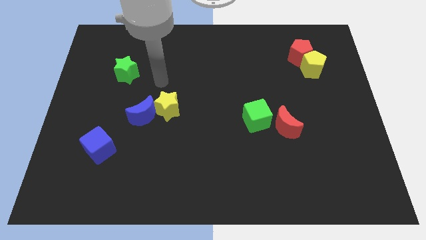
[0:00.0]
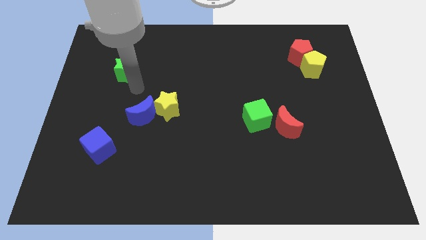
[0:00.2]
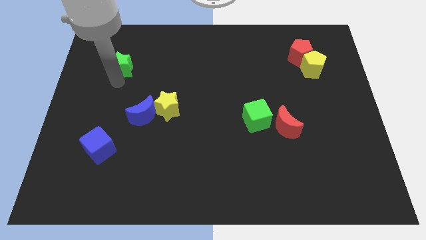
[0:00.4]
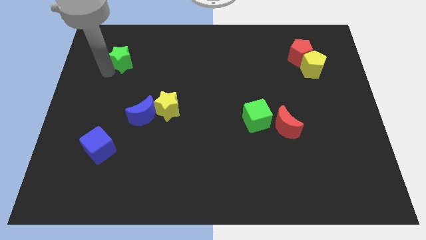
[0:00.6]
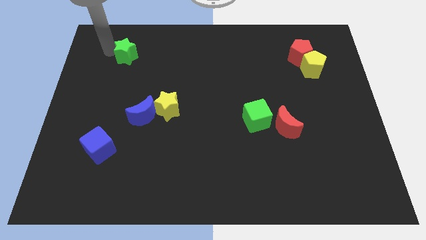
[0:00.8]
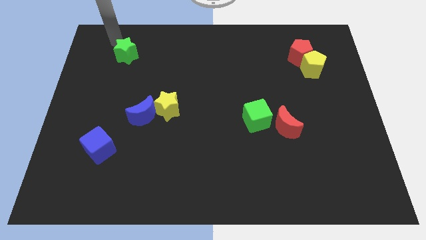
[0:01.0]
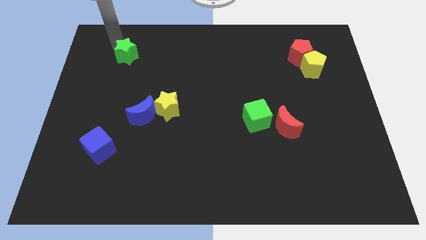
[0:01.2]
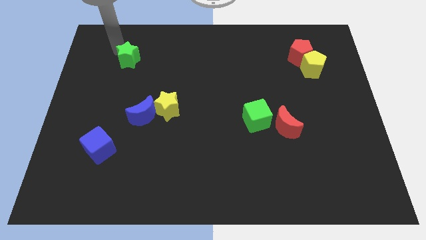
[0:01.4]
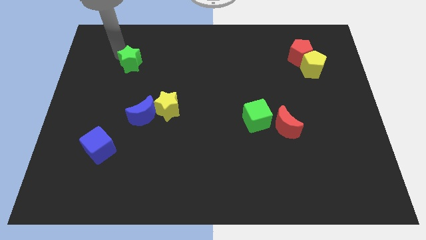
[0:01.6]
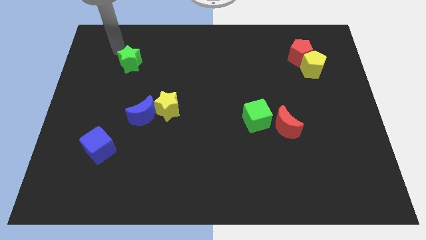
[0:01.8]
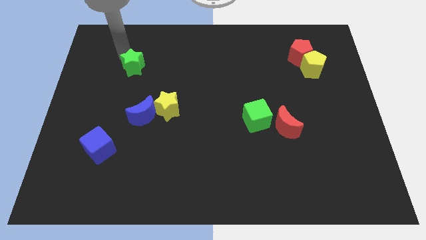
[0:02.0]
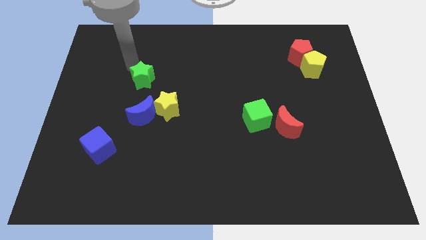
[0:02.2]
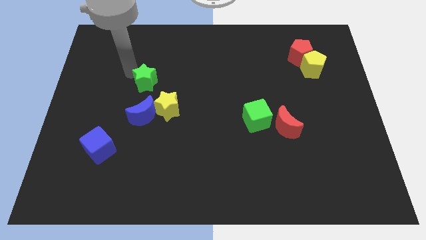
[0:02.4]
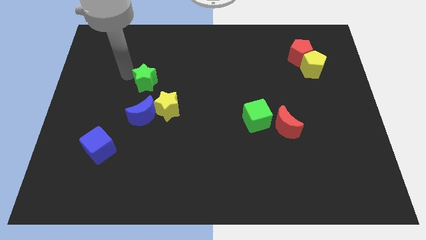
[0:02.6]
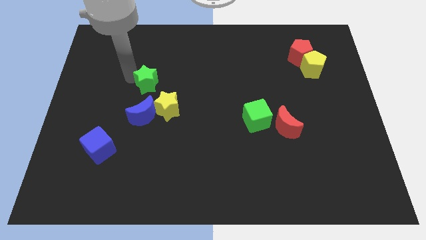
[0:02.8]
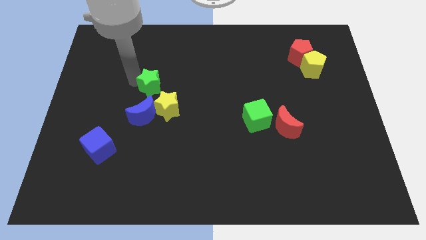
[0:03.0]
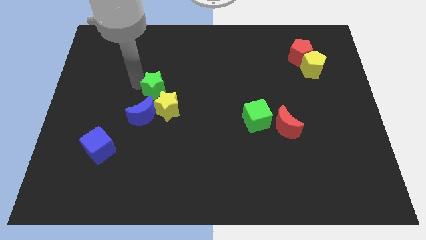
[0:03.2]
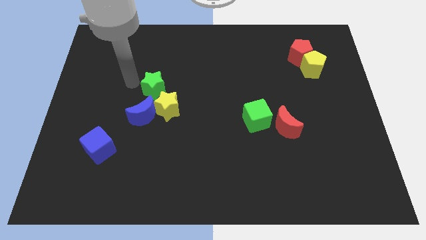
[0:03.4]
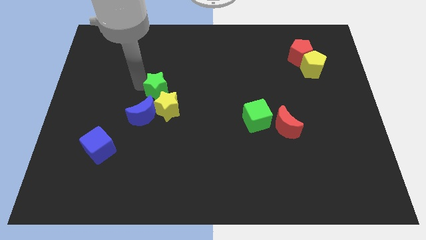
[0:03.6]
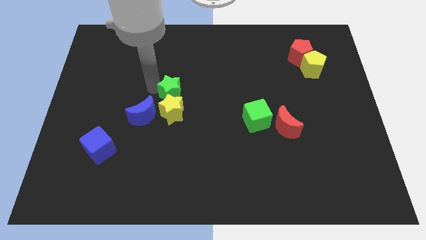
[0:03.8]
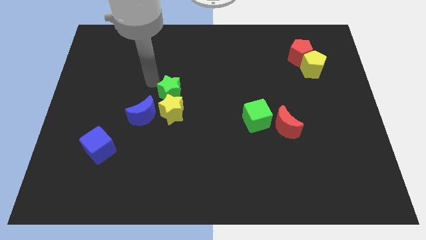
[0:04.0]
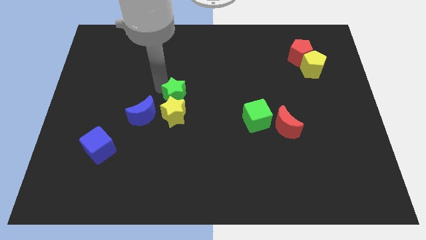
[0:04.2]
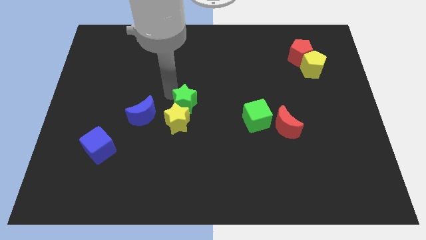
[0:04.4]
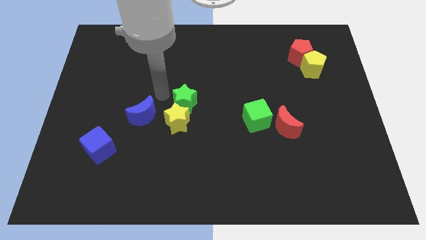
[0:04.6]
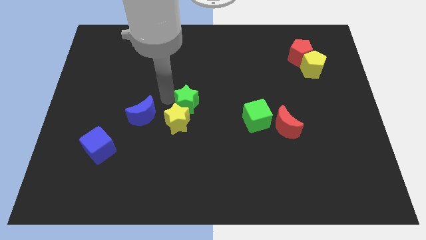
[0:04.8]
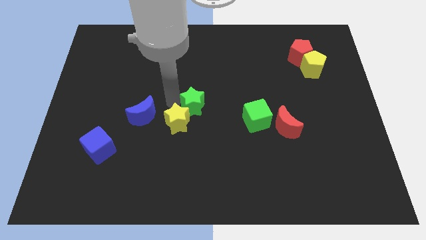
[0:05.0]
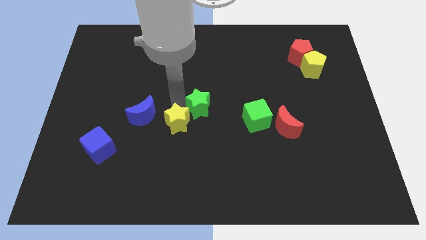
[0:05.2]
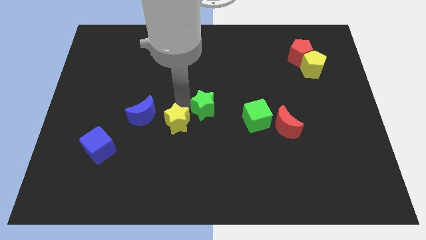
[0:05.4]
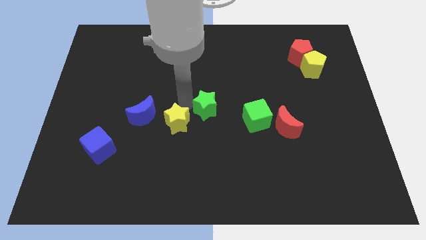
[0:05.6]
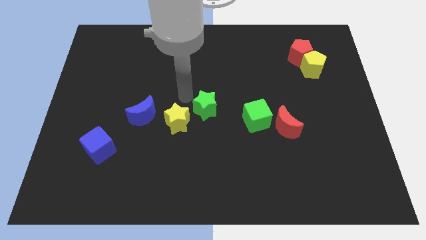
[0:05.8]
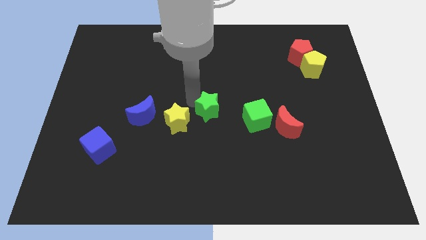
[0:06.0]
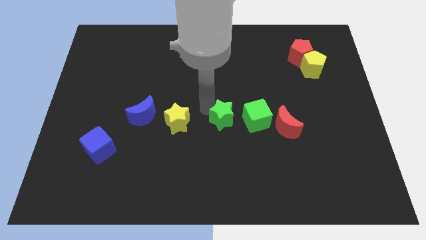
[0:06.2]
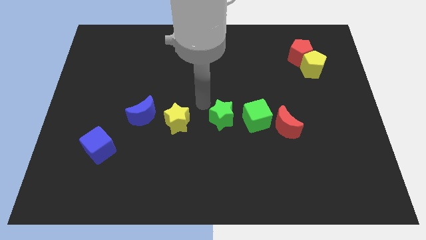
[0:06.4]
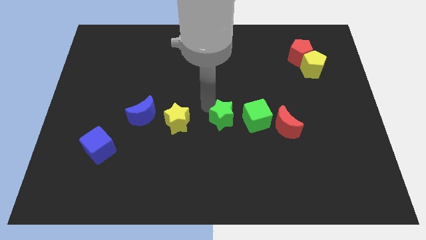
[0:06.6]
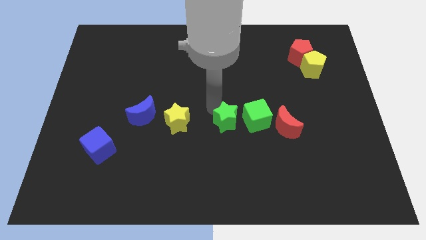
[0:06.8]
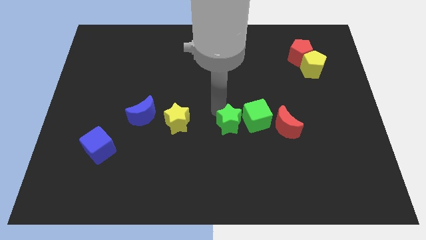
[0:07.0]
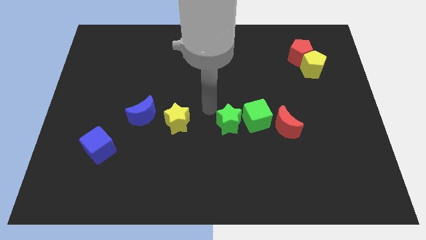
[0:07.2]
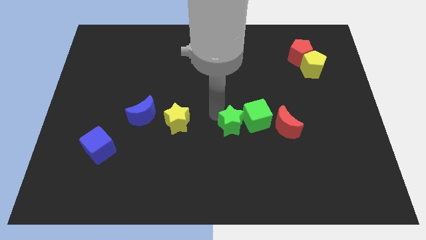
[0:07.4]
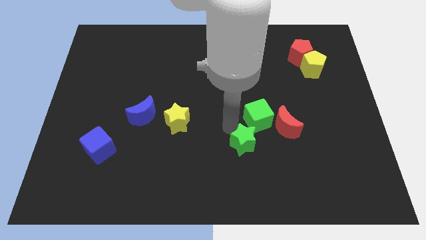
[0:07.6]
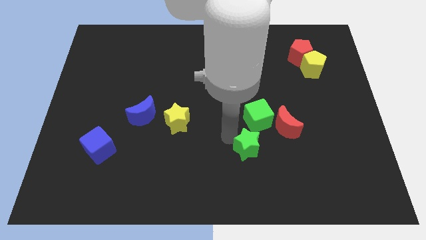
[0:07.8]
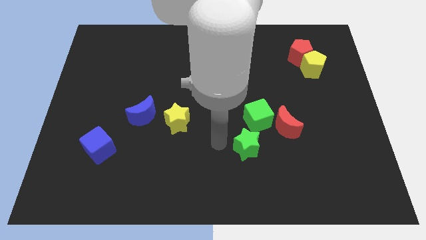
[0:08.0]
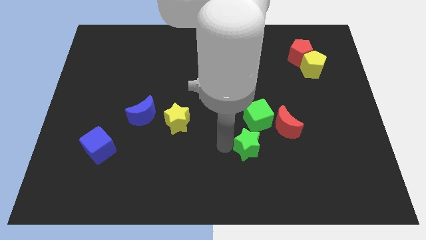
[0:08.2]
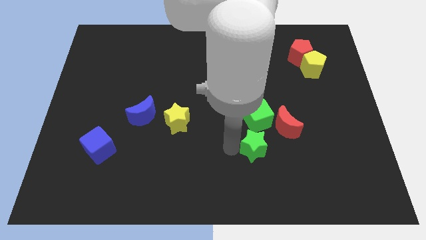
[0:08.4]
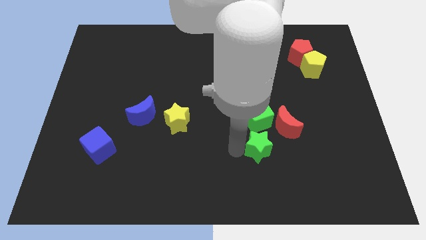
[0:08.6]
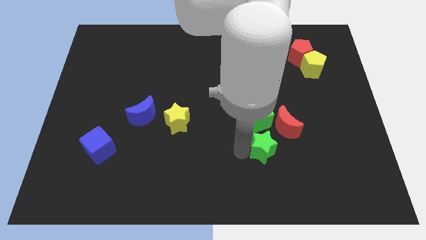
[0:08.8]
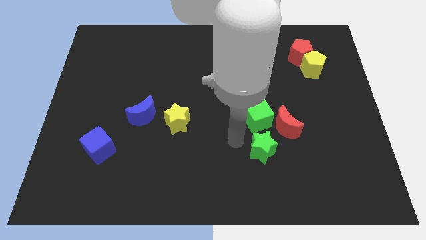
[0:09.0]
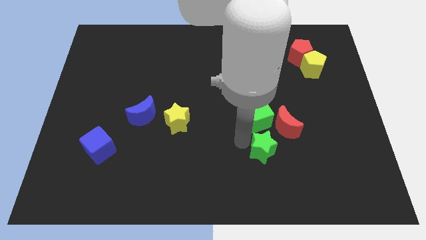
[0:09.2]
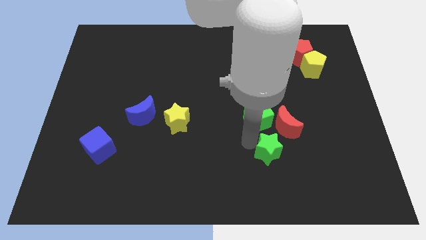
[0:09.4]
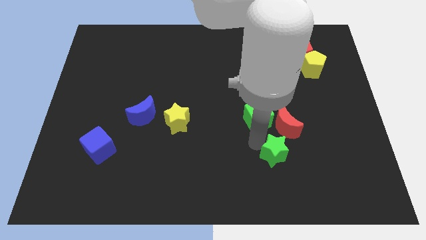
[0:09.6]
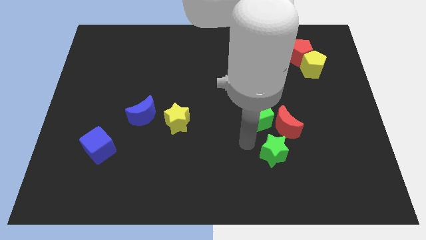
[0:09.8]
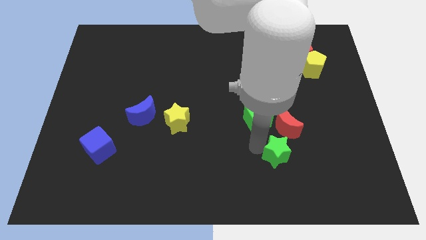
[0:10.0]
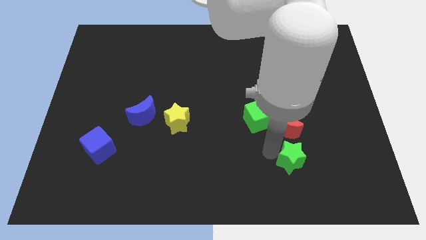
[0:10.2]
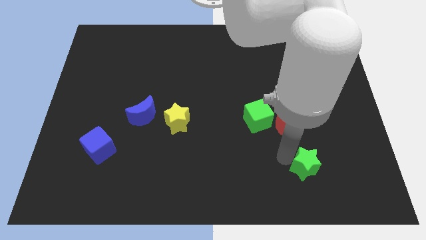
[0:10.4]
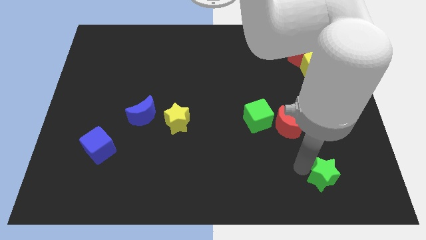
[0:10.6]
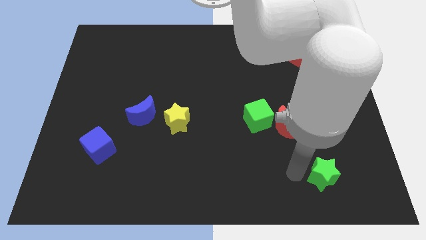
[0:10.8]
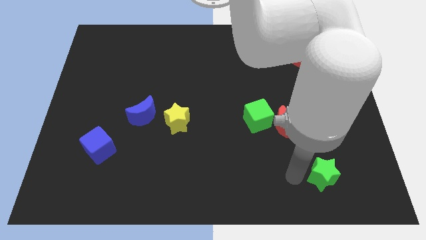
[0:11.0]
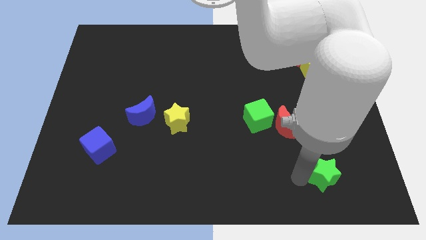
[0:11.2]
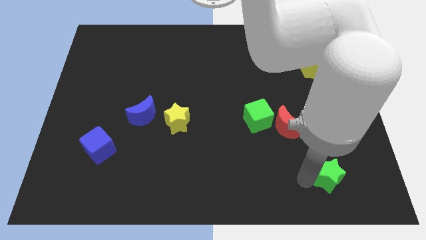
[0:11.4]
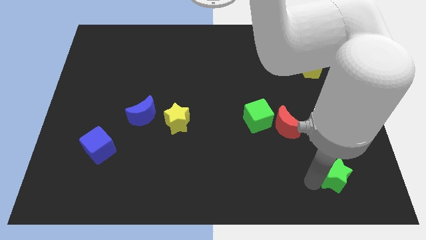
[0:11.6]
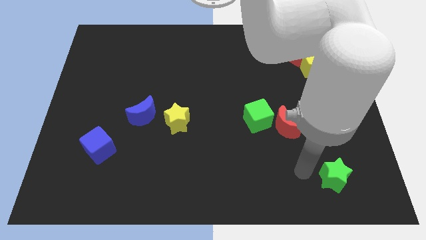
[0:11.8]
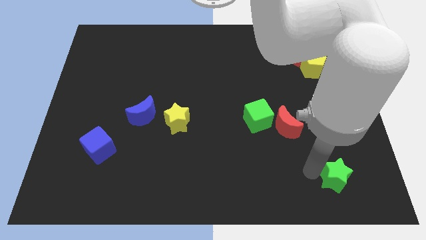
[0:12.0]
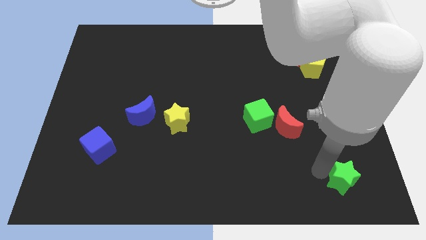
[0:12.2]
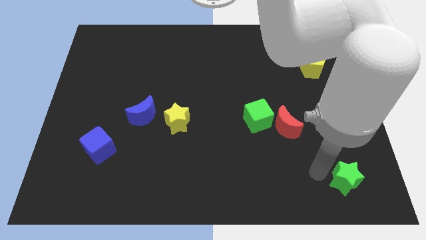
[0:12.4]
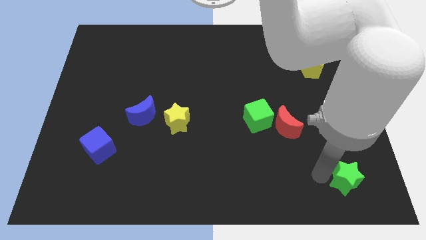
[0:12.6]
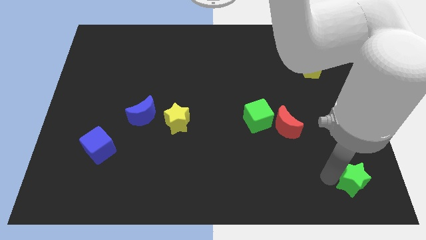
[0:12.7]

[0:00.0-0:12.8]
slide the green star to the bottom right corner
